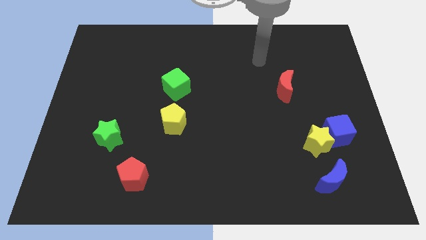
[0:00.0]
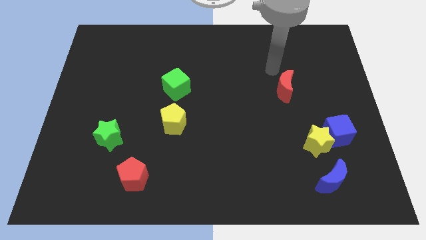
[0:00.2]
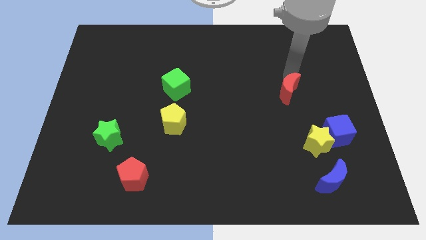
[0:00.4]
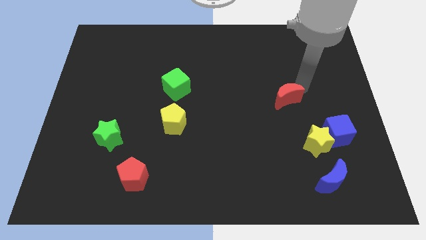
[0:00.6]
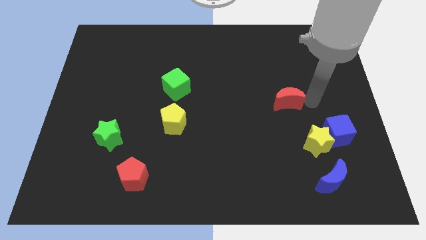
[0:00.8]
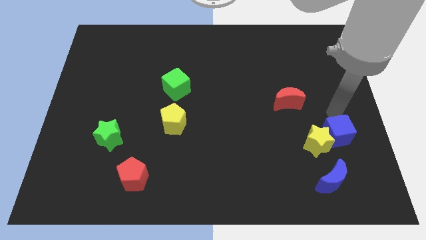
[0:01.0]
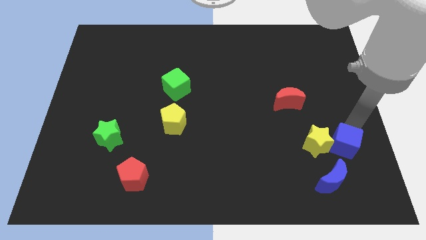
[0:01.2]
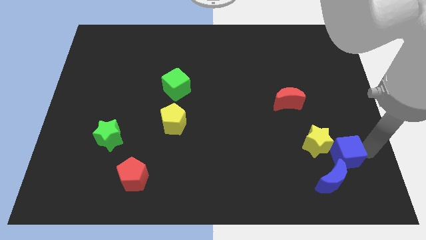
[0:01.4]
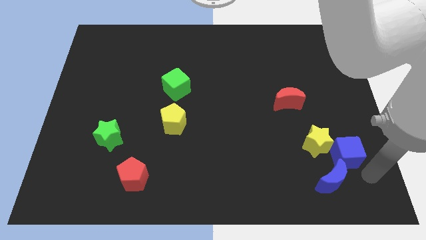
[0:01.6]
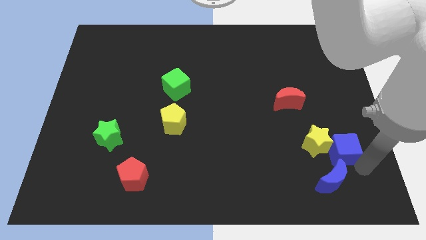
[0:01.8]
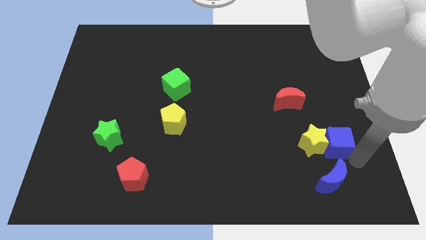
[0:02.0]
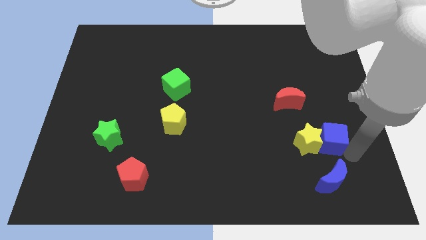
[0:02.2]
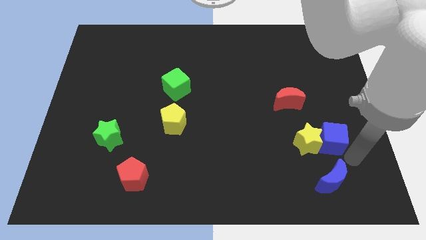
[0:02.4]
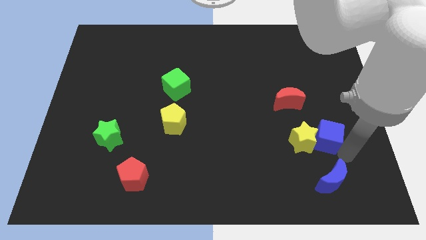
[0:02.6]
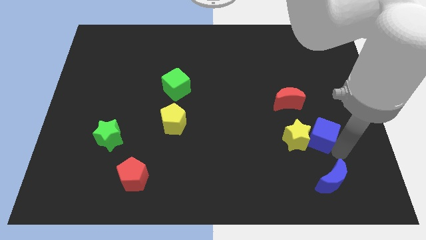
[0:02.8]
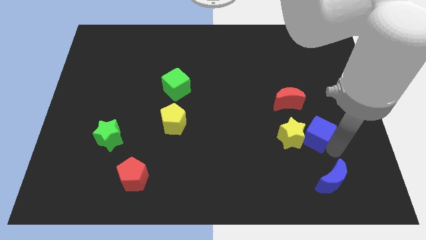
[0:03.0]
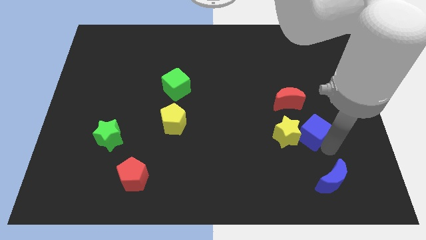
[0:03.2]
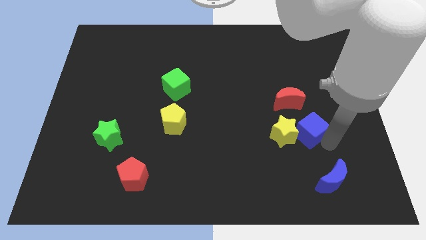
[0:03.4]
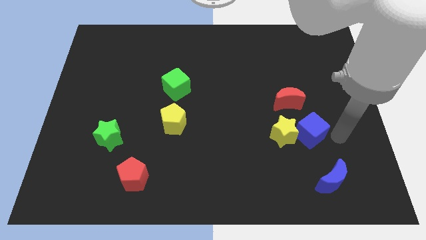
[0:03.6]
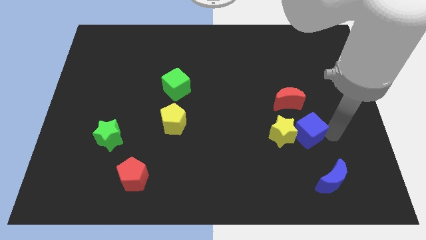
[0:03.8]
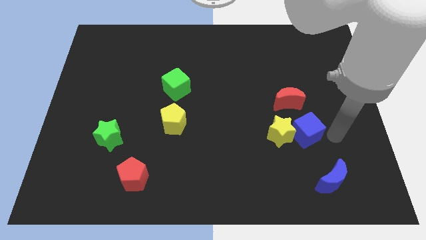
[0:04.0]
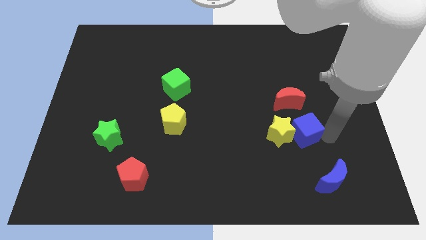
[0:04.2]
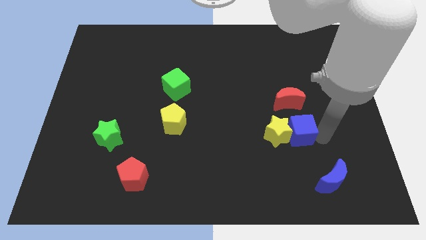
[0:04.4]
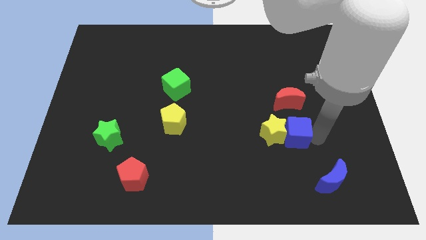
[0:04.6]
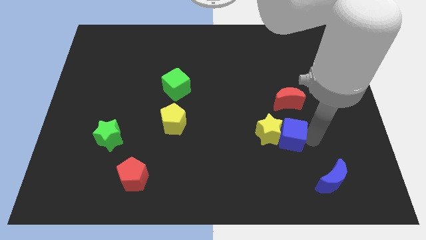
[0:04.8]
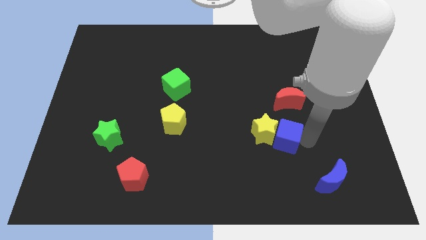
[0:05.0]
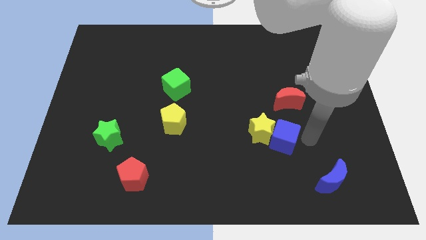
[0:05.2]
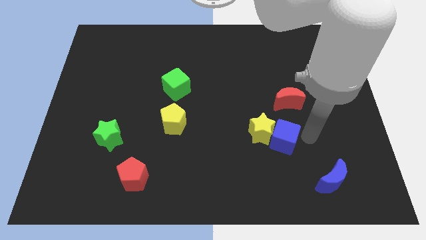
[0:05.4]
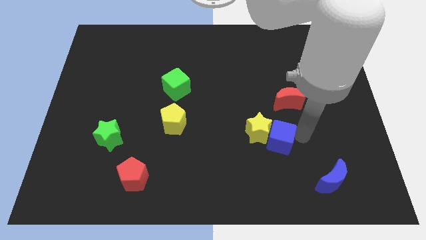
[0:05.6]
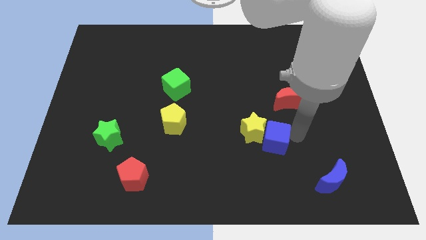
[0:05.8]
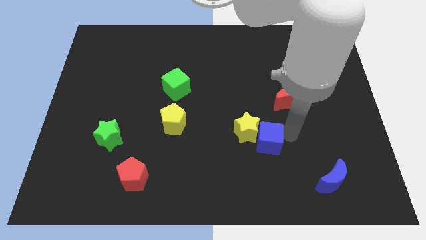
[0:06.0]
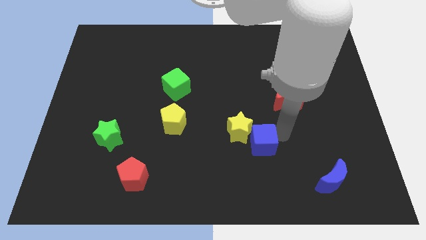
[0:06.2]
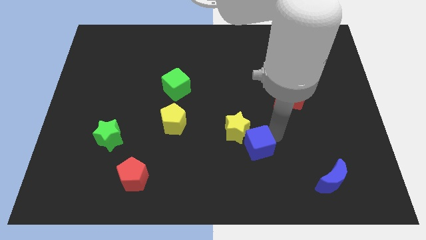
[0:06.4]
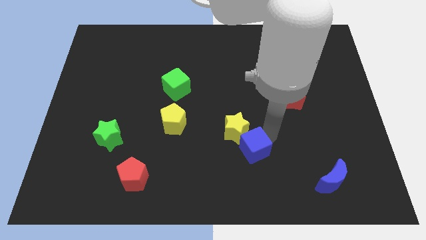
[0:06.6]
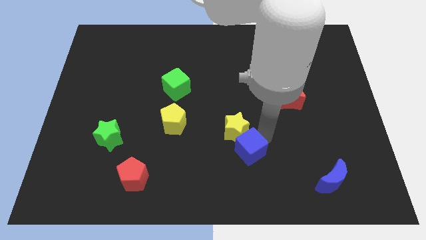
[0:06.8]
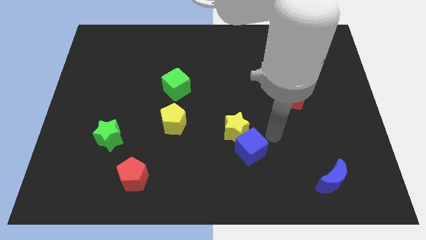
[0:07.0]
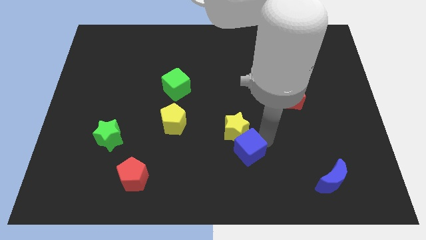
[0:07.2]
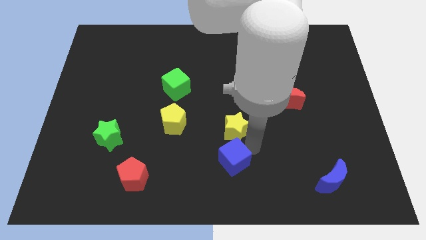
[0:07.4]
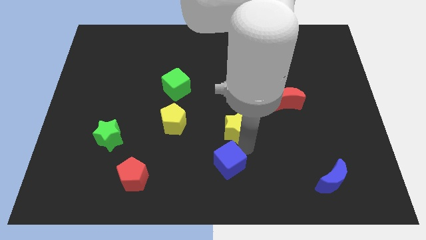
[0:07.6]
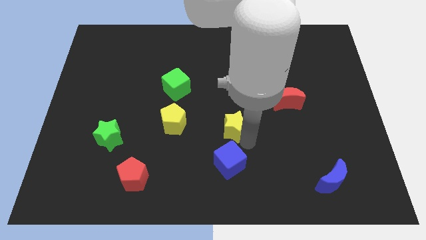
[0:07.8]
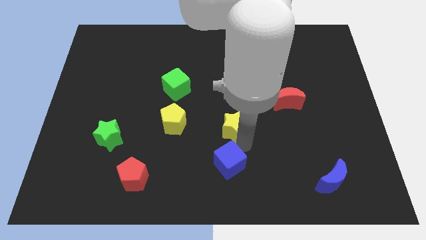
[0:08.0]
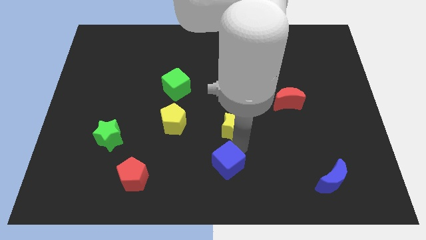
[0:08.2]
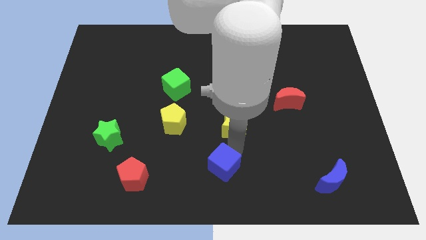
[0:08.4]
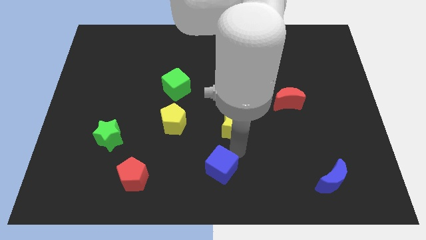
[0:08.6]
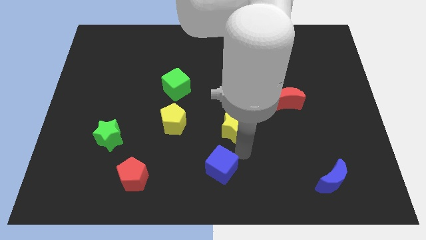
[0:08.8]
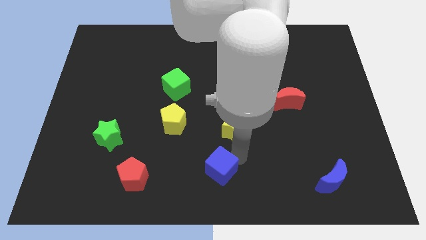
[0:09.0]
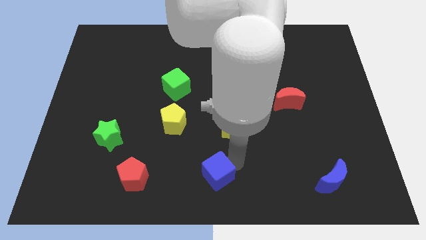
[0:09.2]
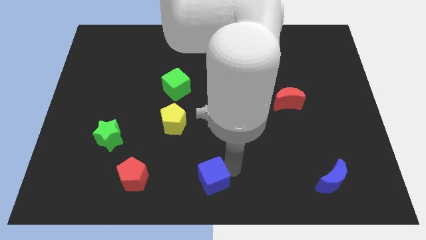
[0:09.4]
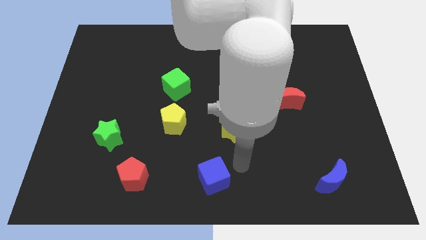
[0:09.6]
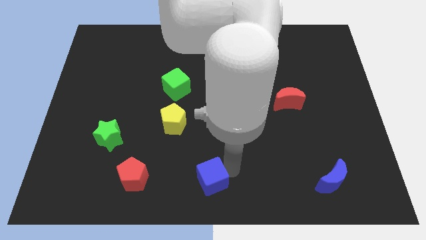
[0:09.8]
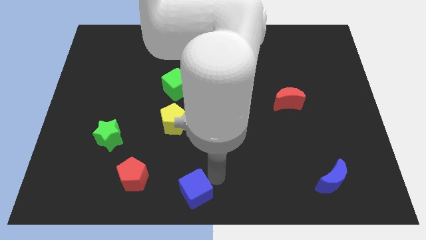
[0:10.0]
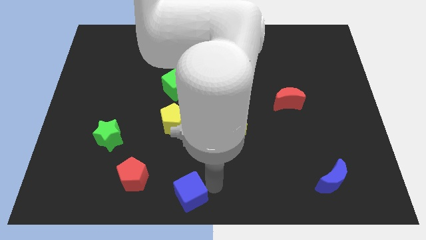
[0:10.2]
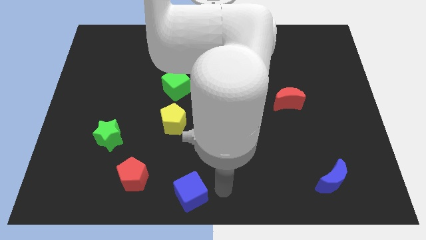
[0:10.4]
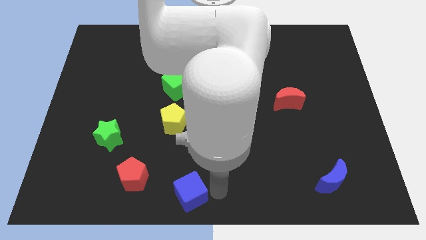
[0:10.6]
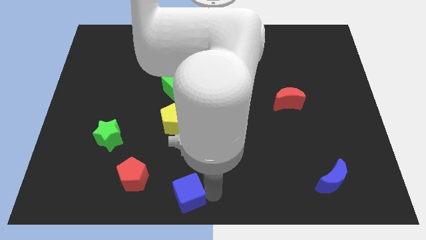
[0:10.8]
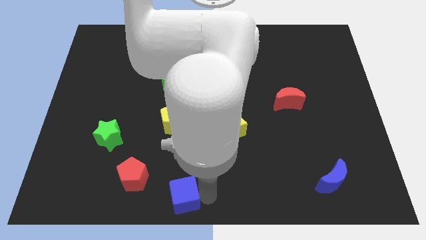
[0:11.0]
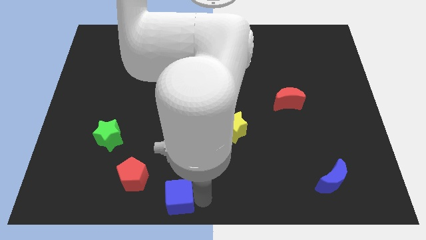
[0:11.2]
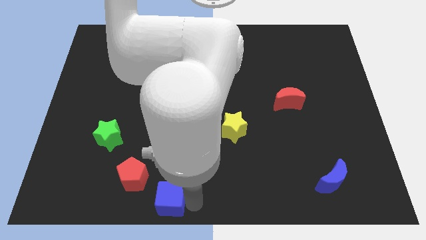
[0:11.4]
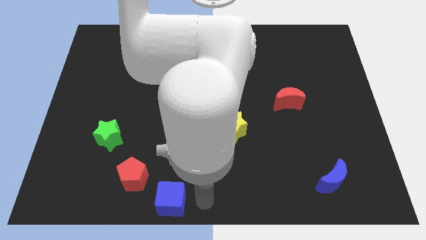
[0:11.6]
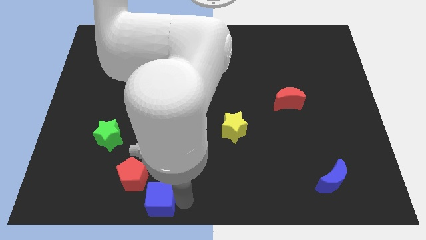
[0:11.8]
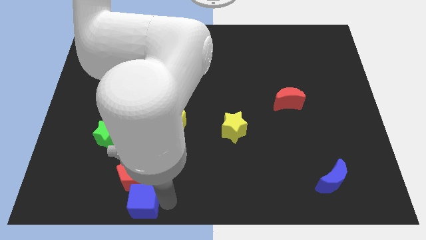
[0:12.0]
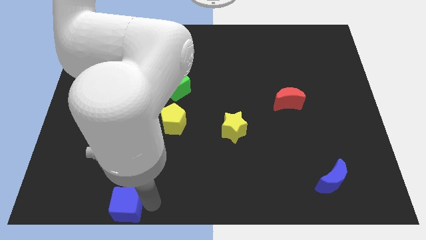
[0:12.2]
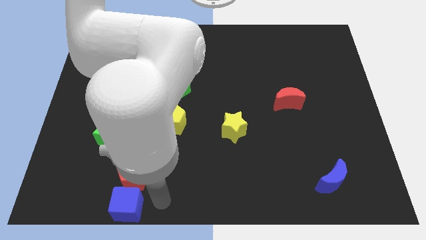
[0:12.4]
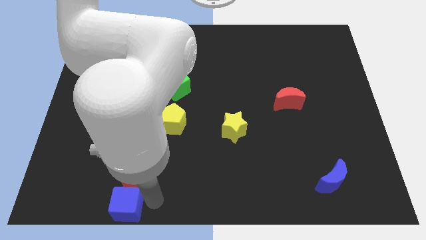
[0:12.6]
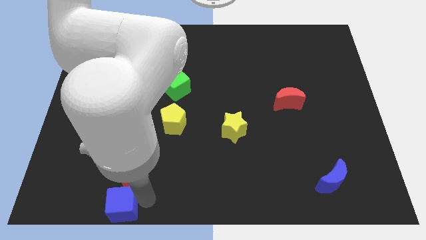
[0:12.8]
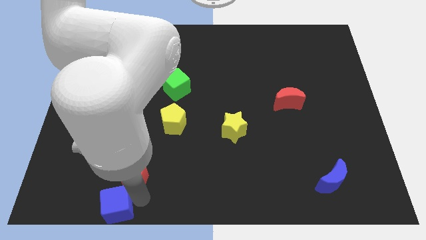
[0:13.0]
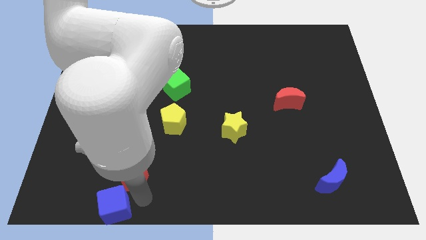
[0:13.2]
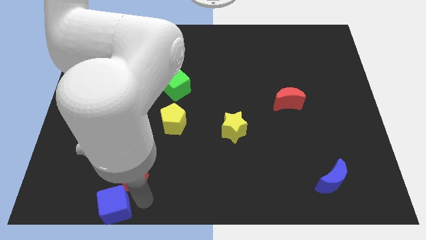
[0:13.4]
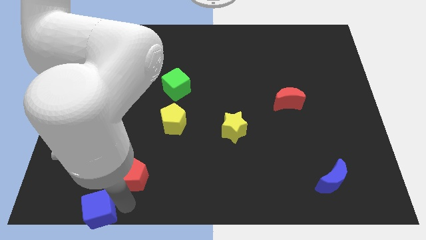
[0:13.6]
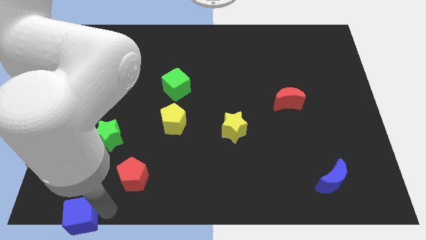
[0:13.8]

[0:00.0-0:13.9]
put the blue cube to the bottom left
